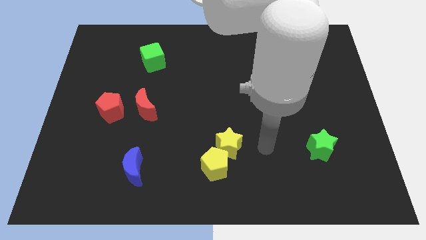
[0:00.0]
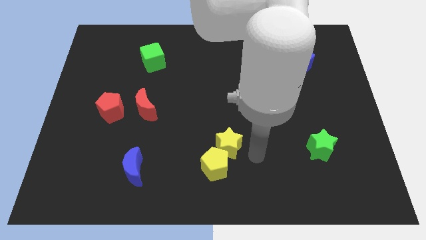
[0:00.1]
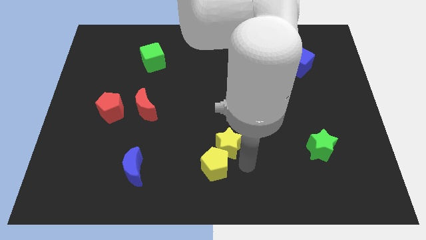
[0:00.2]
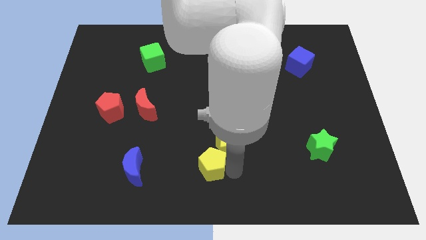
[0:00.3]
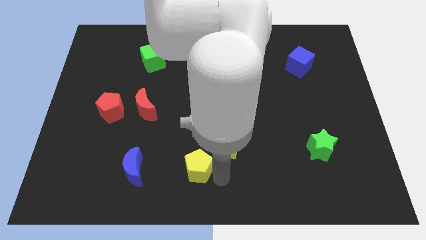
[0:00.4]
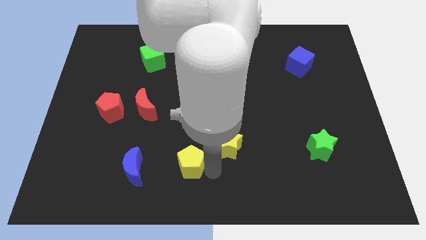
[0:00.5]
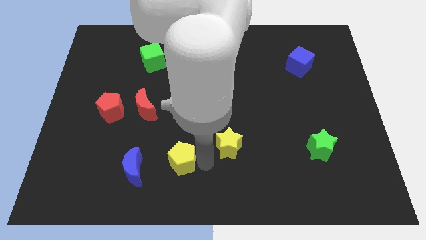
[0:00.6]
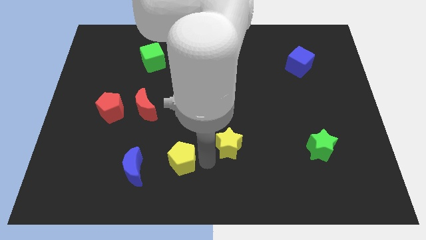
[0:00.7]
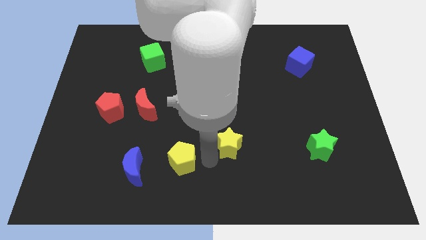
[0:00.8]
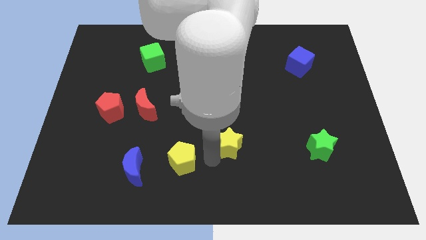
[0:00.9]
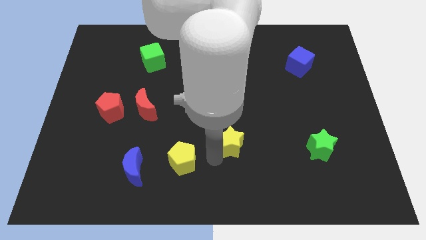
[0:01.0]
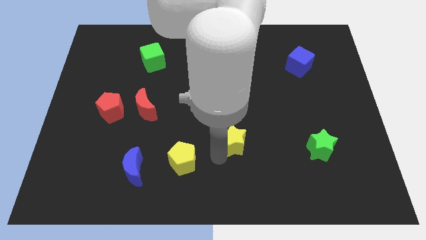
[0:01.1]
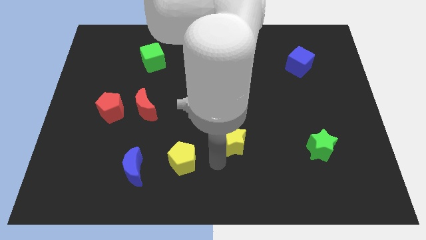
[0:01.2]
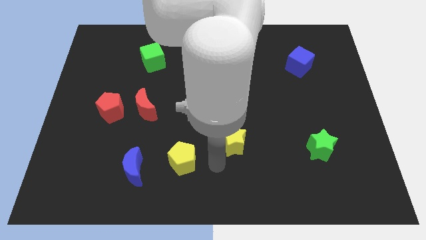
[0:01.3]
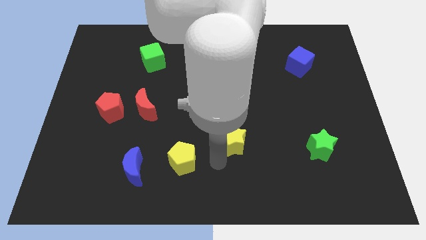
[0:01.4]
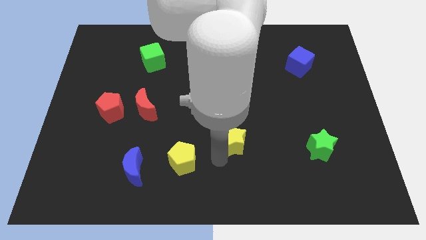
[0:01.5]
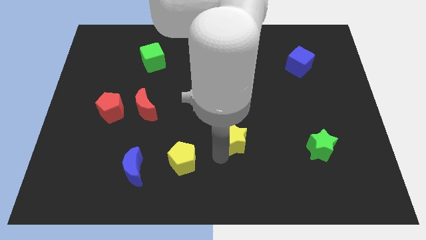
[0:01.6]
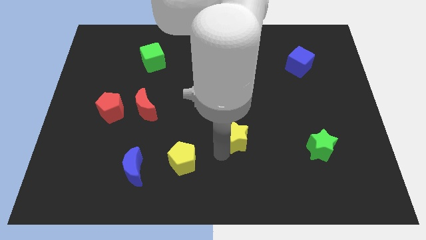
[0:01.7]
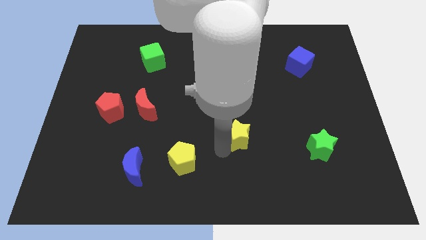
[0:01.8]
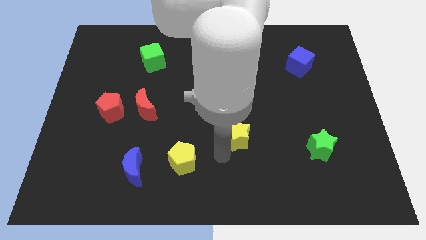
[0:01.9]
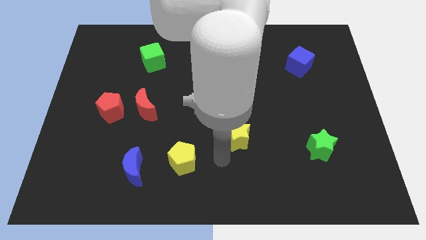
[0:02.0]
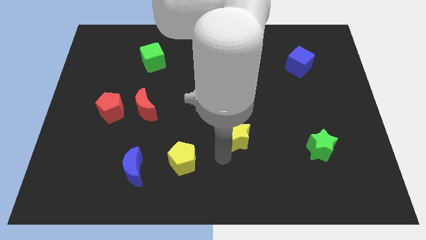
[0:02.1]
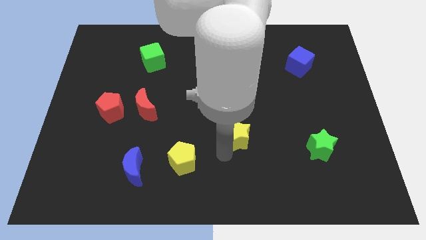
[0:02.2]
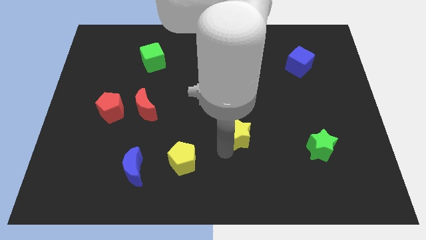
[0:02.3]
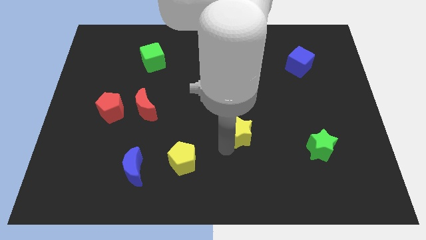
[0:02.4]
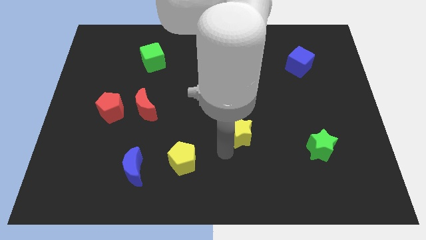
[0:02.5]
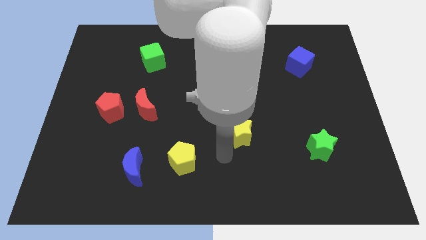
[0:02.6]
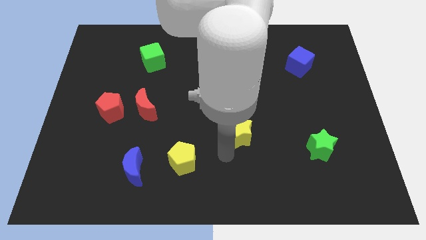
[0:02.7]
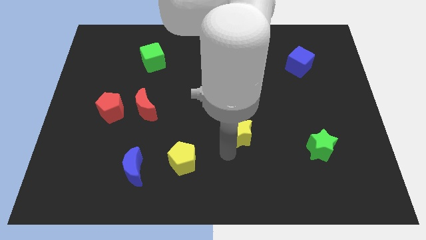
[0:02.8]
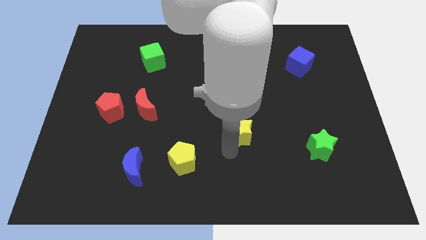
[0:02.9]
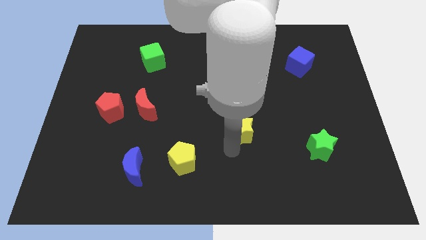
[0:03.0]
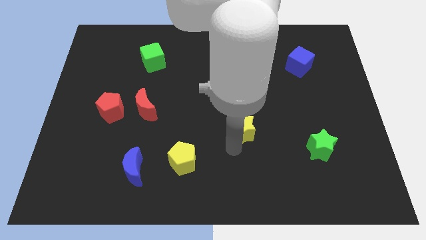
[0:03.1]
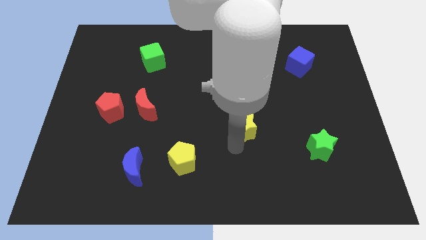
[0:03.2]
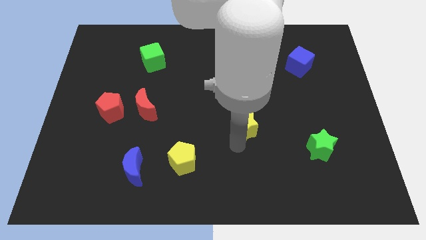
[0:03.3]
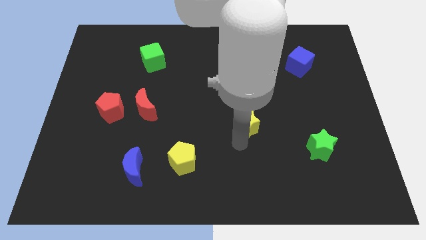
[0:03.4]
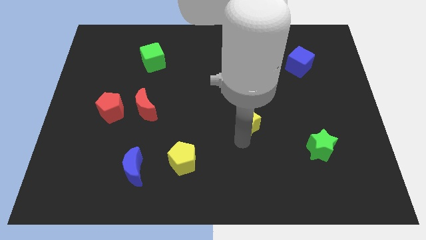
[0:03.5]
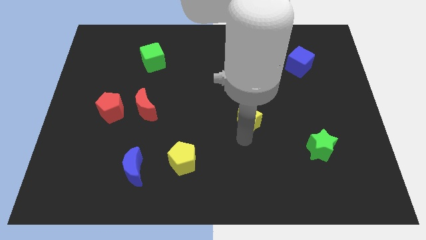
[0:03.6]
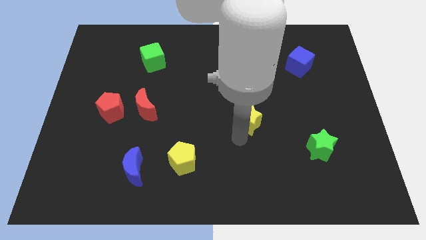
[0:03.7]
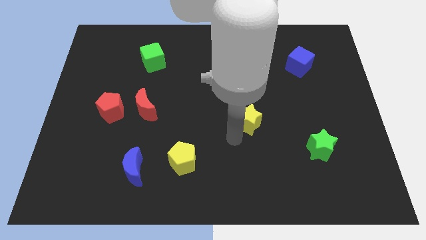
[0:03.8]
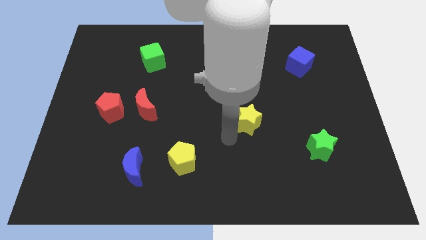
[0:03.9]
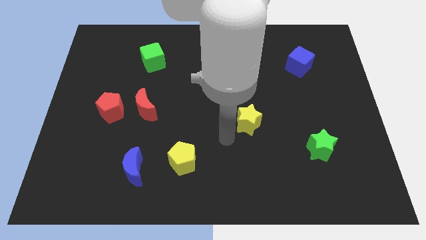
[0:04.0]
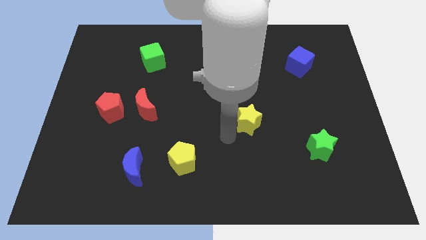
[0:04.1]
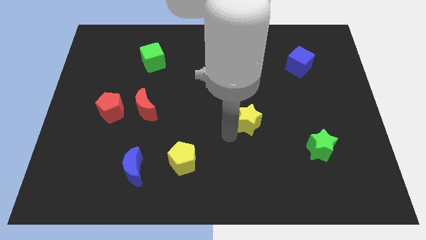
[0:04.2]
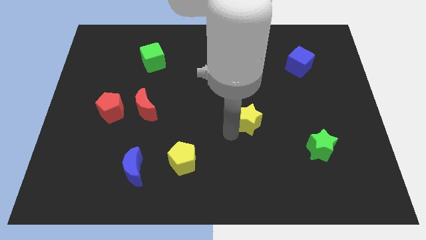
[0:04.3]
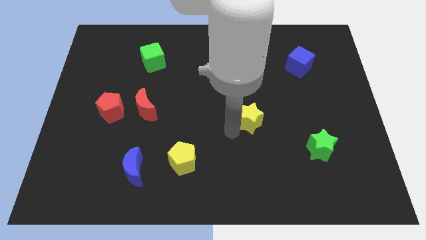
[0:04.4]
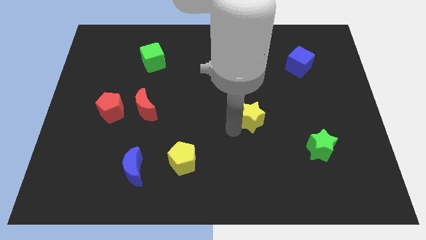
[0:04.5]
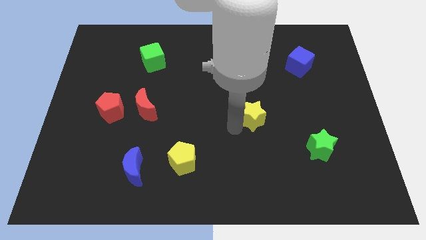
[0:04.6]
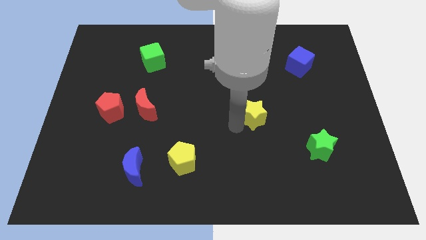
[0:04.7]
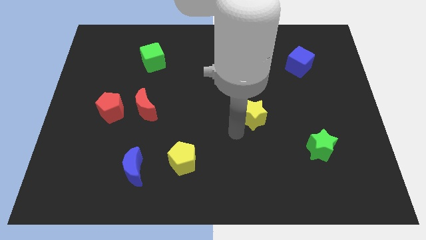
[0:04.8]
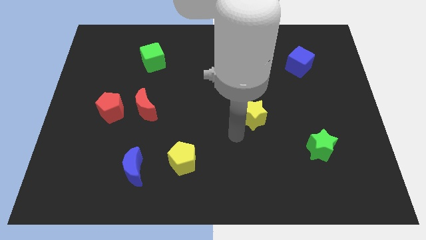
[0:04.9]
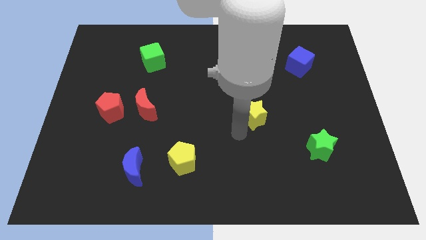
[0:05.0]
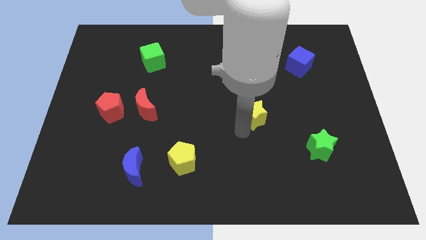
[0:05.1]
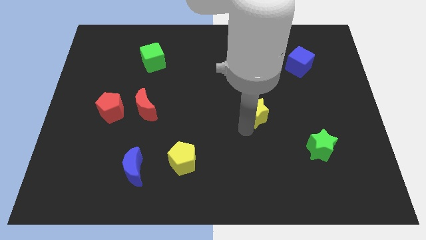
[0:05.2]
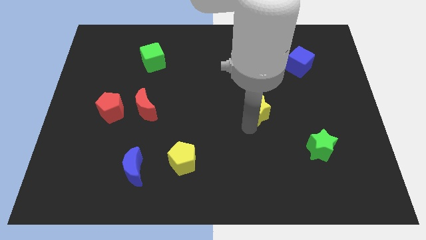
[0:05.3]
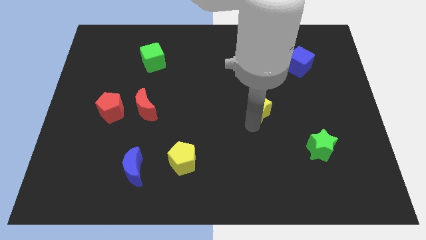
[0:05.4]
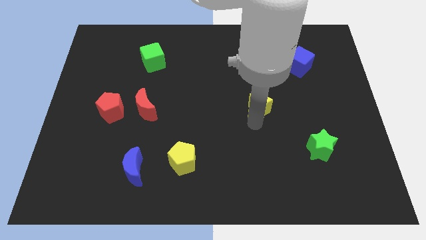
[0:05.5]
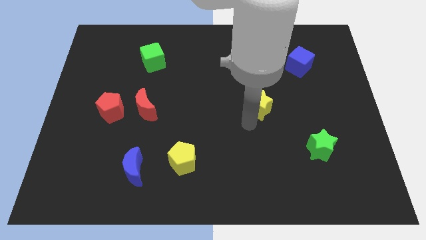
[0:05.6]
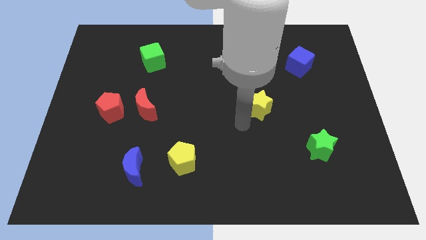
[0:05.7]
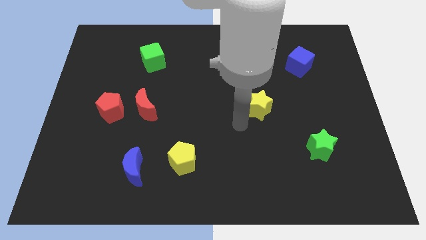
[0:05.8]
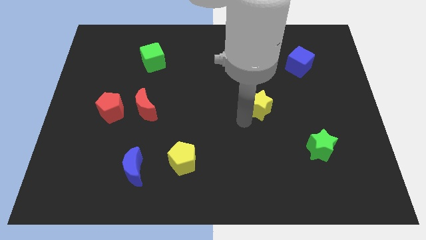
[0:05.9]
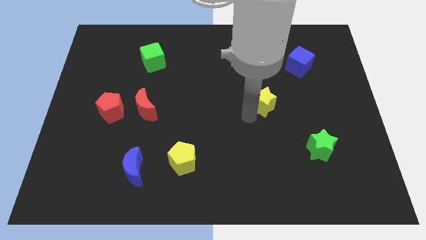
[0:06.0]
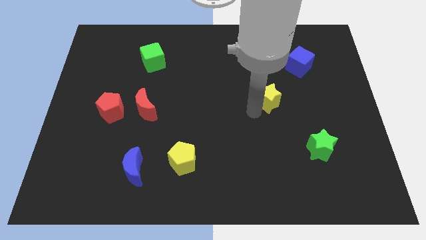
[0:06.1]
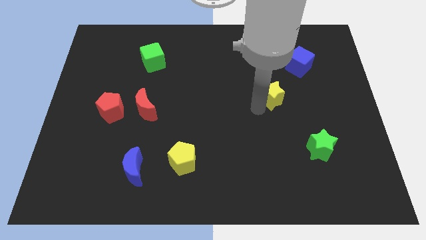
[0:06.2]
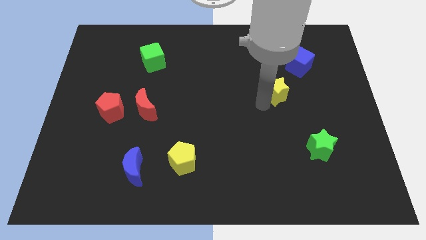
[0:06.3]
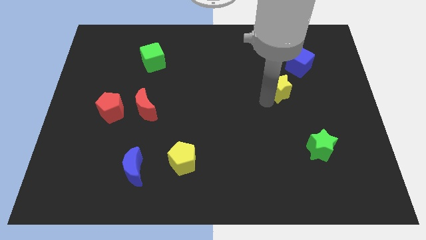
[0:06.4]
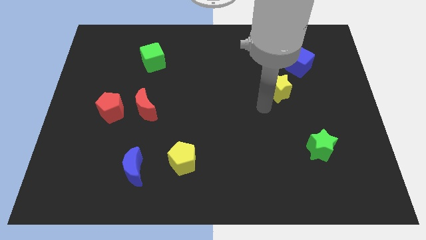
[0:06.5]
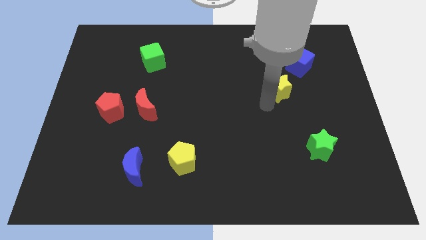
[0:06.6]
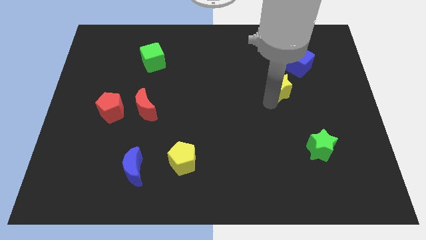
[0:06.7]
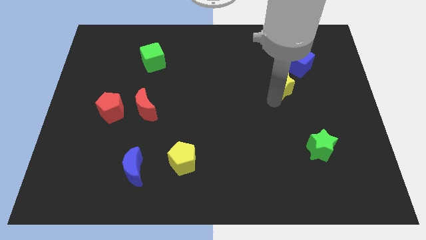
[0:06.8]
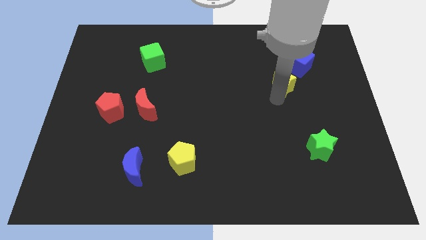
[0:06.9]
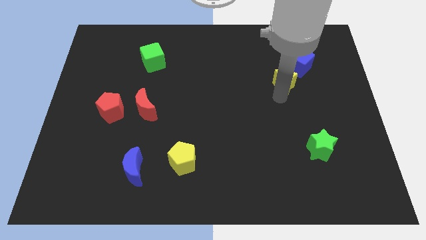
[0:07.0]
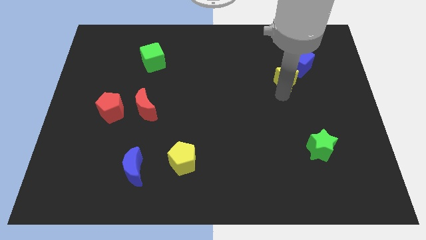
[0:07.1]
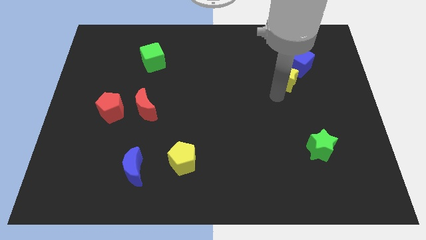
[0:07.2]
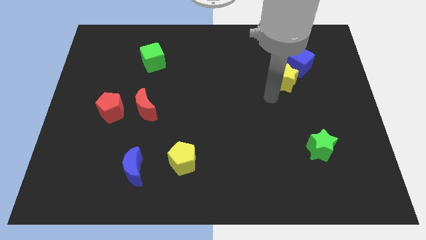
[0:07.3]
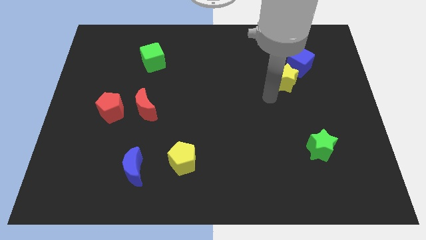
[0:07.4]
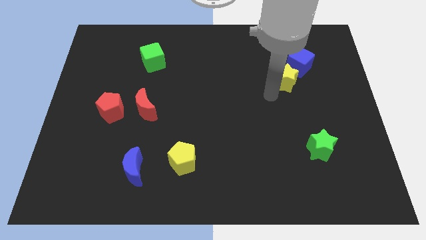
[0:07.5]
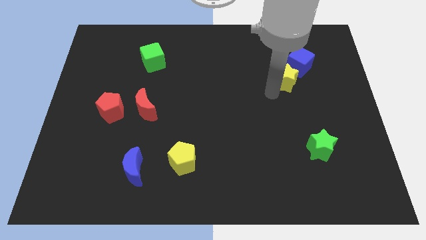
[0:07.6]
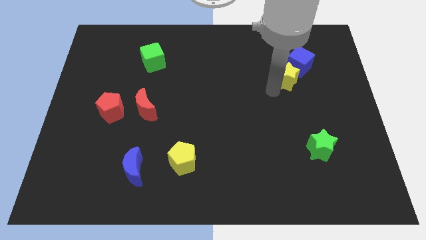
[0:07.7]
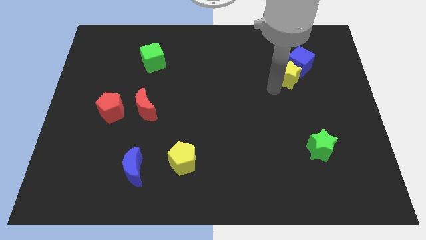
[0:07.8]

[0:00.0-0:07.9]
move the yellow star next to the blue cube
